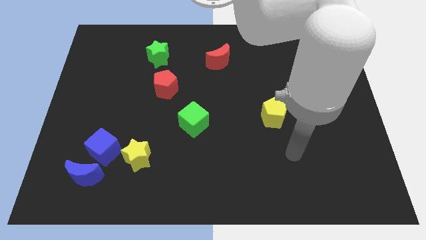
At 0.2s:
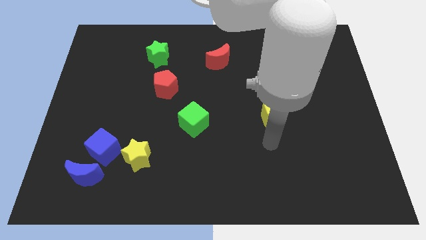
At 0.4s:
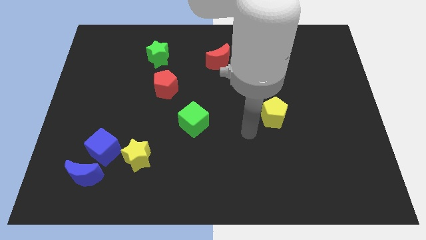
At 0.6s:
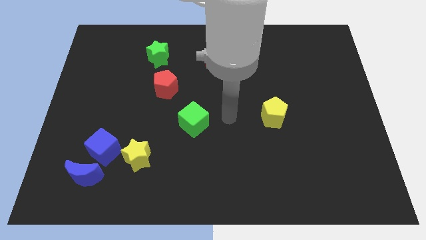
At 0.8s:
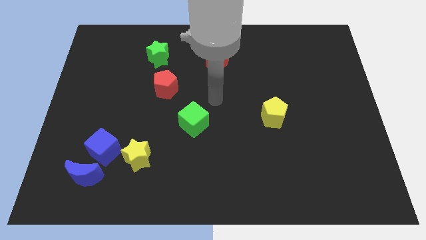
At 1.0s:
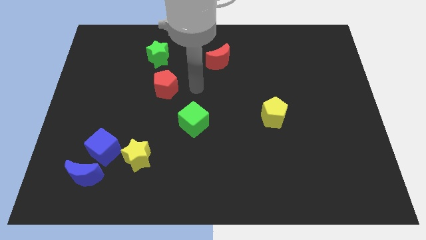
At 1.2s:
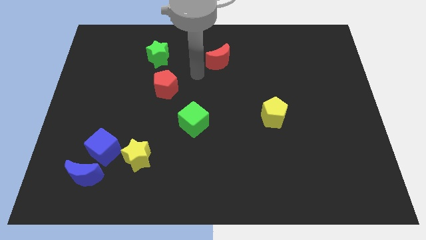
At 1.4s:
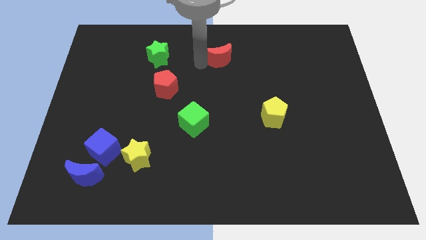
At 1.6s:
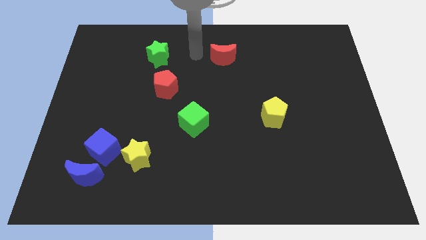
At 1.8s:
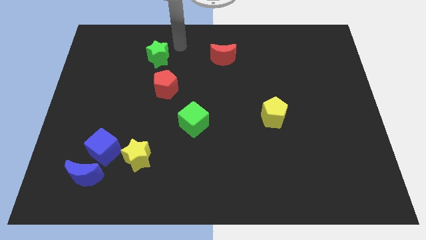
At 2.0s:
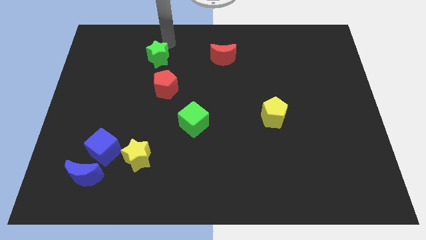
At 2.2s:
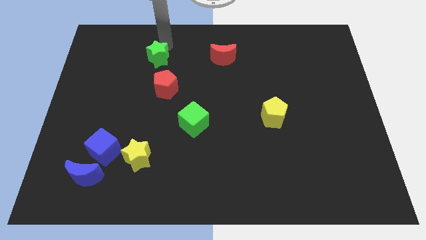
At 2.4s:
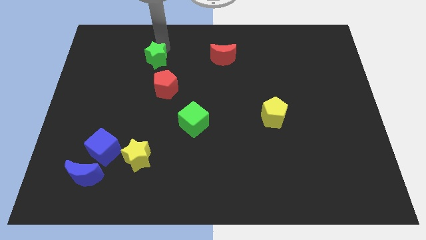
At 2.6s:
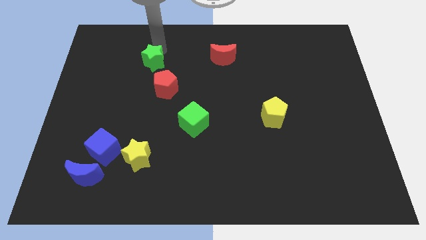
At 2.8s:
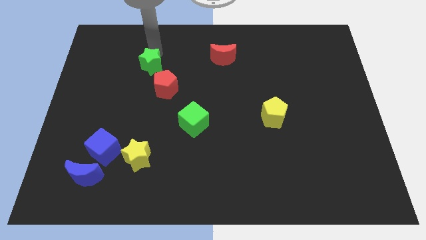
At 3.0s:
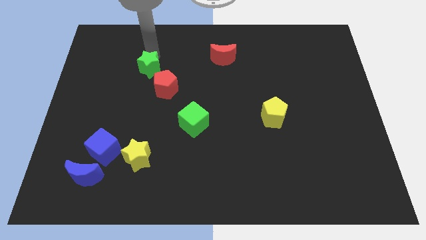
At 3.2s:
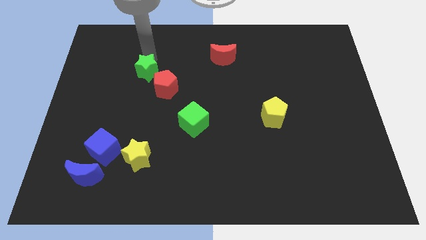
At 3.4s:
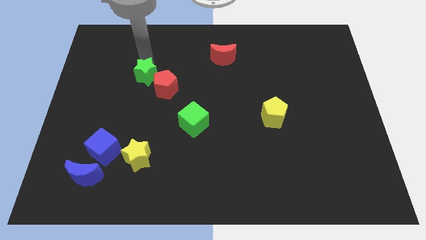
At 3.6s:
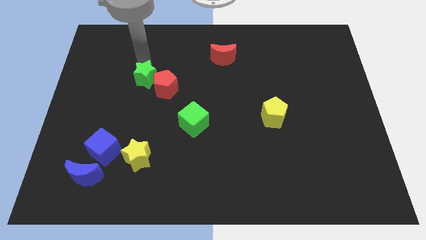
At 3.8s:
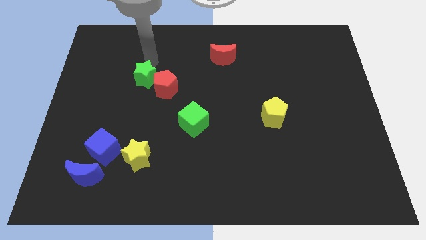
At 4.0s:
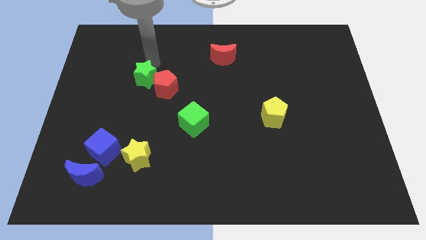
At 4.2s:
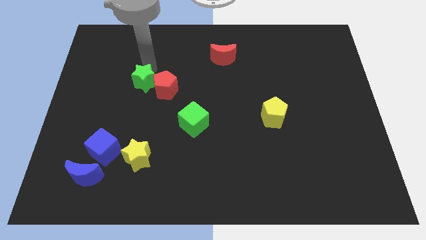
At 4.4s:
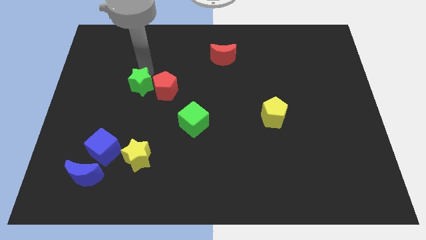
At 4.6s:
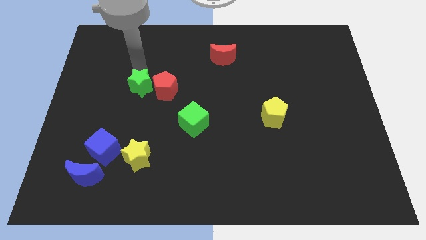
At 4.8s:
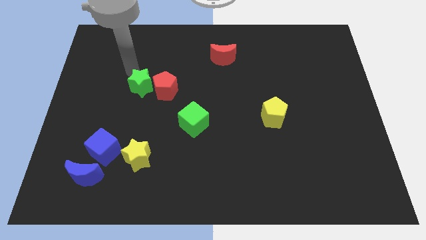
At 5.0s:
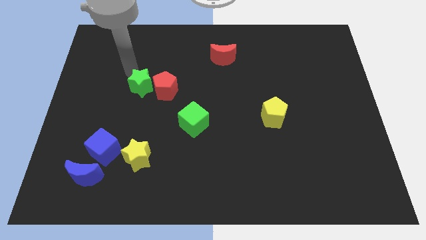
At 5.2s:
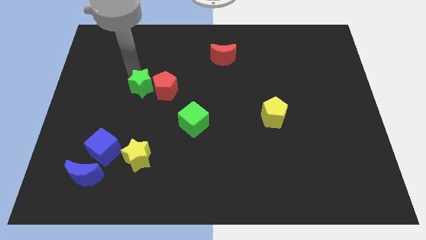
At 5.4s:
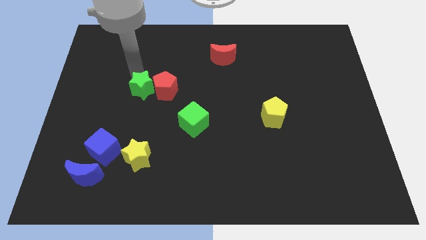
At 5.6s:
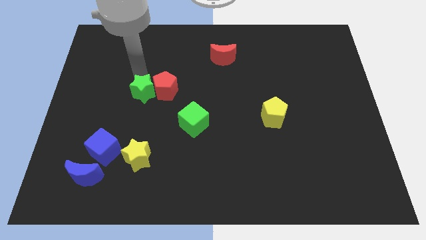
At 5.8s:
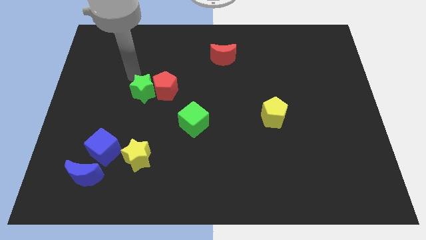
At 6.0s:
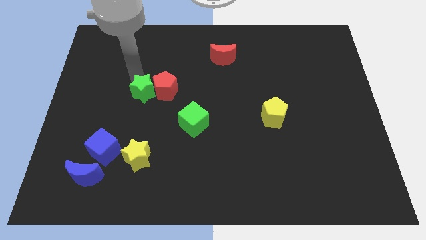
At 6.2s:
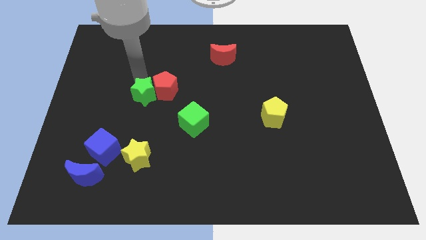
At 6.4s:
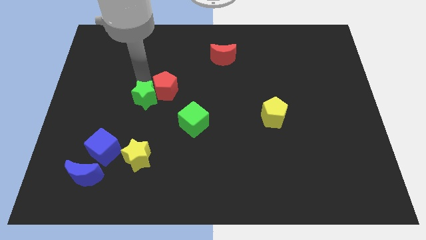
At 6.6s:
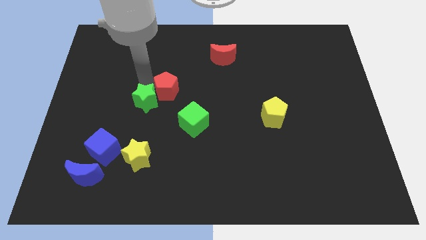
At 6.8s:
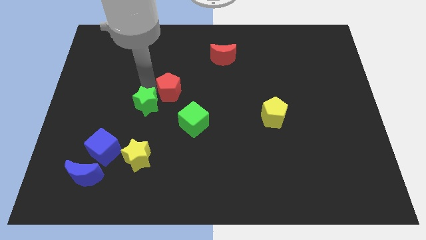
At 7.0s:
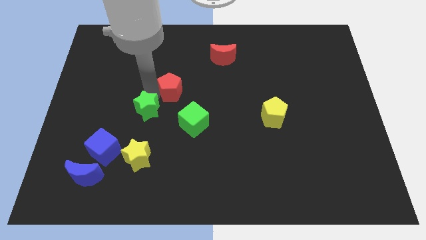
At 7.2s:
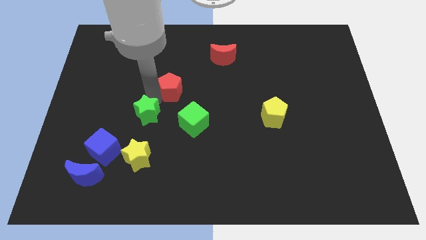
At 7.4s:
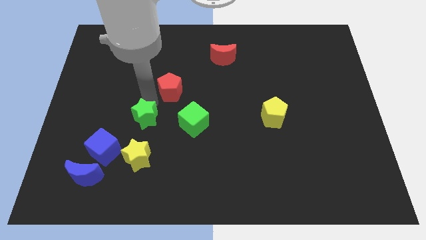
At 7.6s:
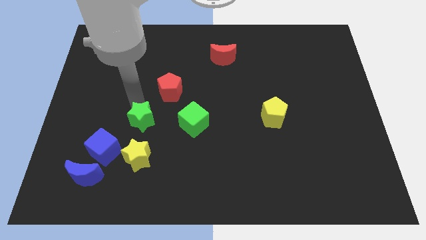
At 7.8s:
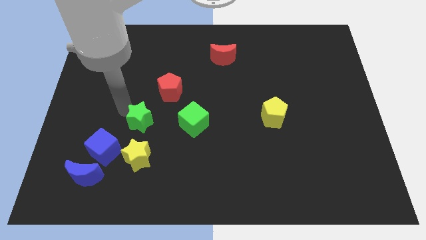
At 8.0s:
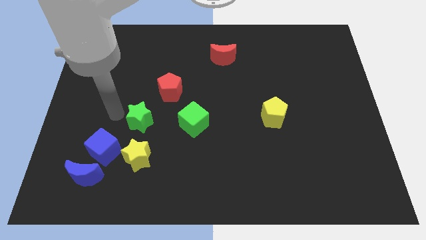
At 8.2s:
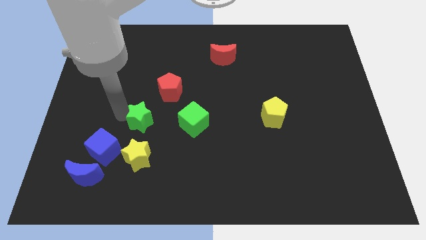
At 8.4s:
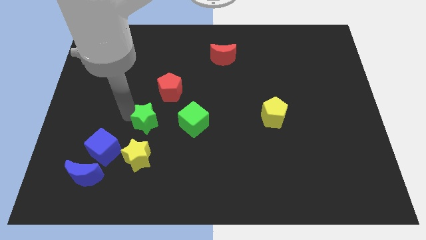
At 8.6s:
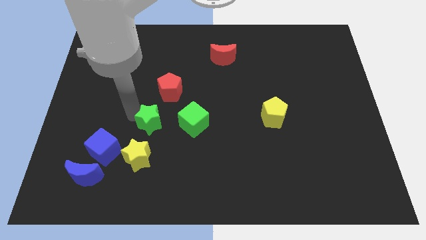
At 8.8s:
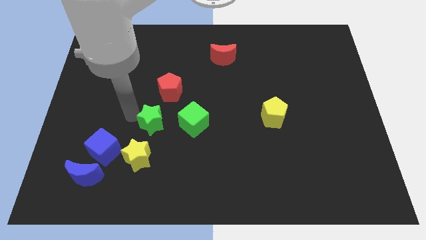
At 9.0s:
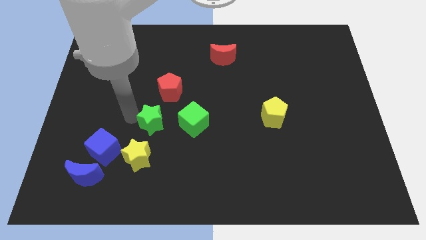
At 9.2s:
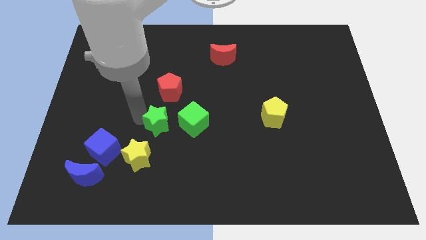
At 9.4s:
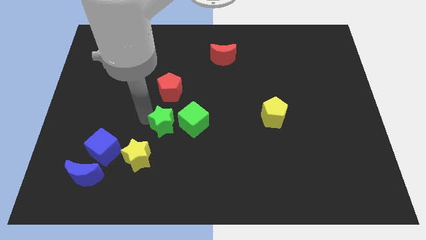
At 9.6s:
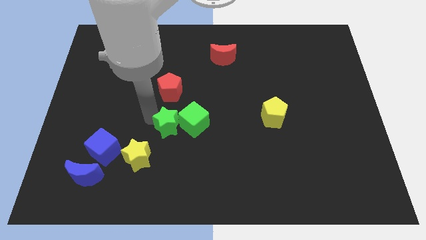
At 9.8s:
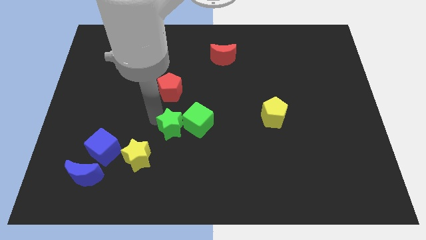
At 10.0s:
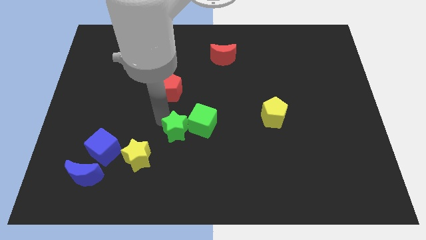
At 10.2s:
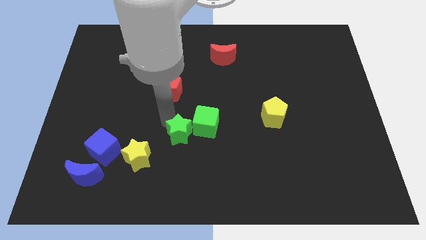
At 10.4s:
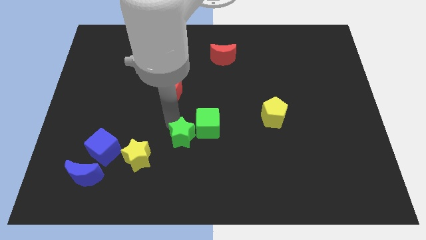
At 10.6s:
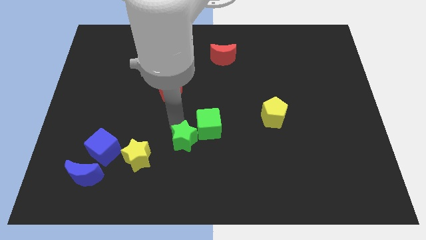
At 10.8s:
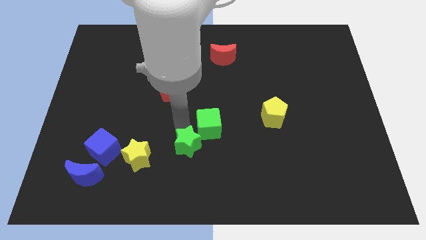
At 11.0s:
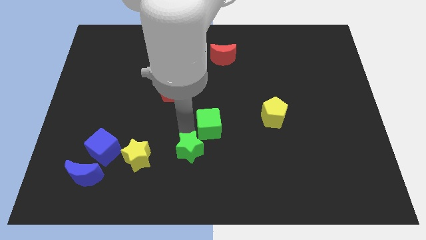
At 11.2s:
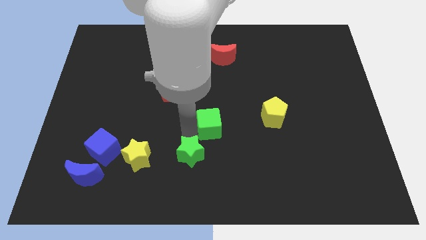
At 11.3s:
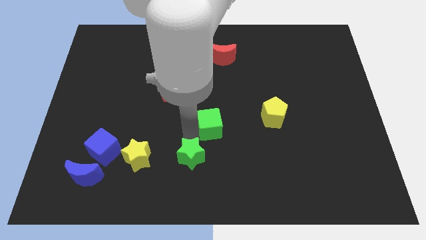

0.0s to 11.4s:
move the green star to the bottom side
